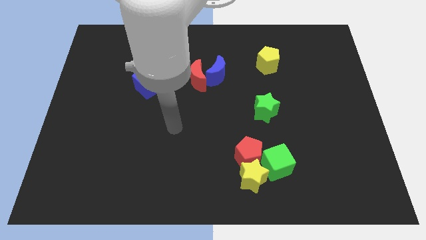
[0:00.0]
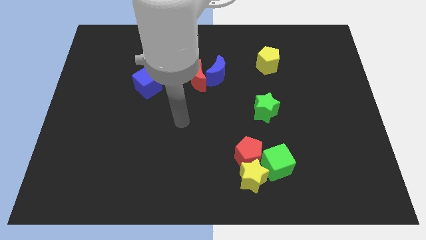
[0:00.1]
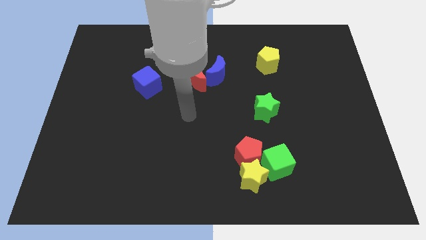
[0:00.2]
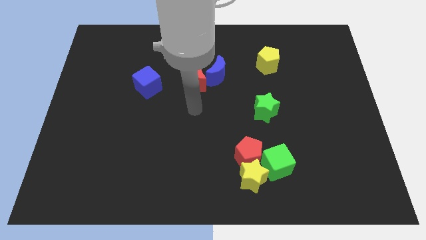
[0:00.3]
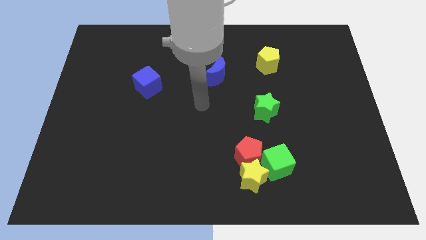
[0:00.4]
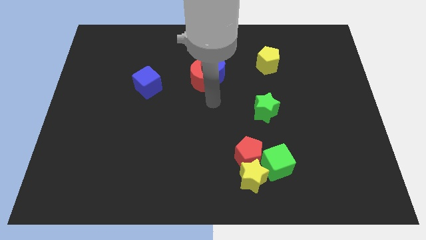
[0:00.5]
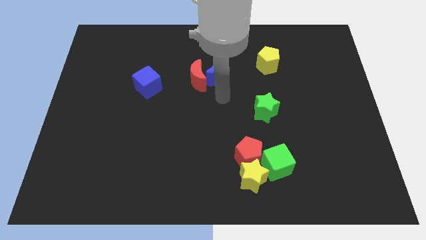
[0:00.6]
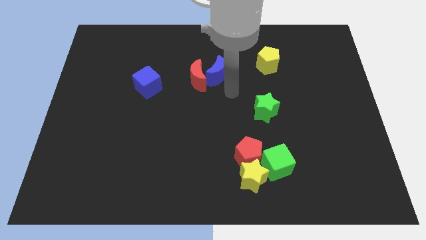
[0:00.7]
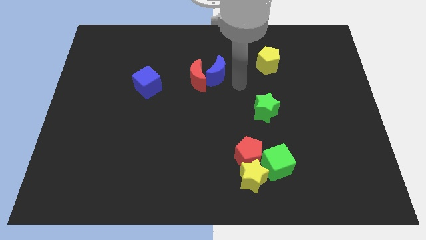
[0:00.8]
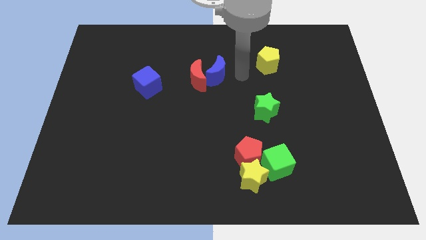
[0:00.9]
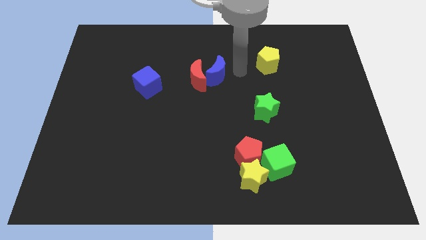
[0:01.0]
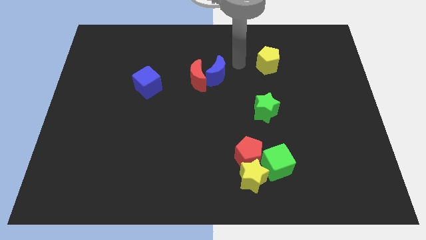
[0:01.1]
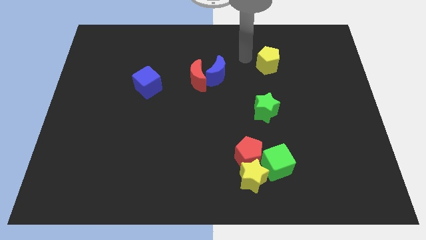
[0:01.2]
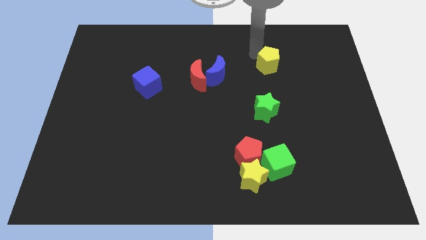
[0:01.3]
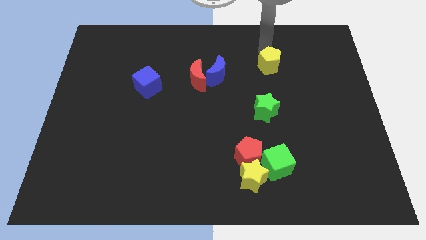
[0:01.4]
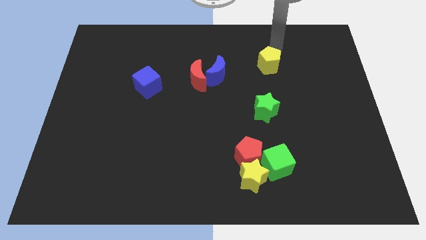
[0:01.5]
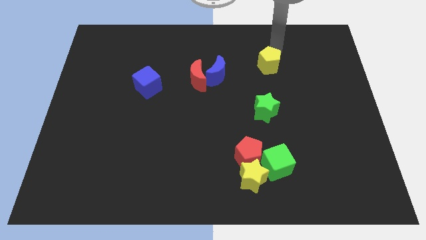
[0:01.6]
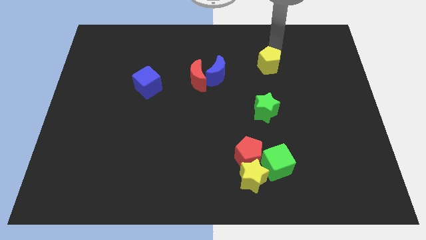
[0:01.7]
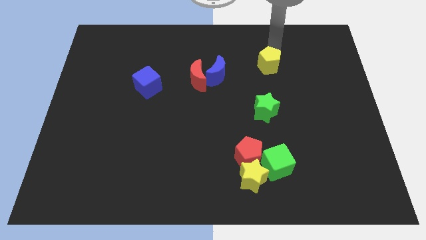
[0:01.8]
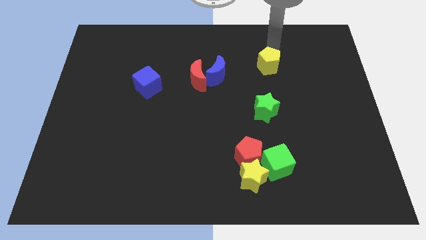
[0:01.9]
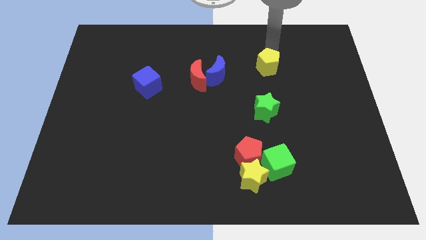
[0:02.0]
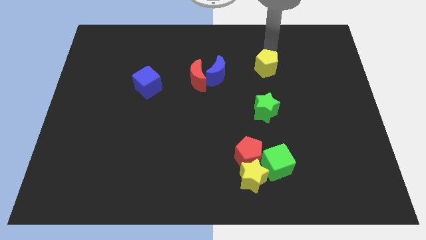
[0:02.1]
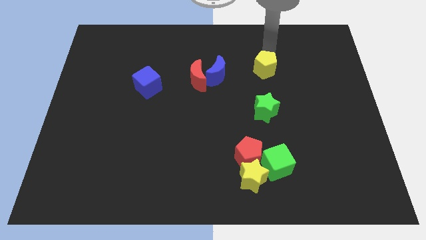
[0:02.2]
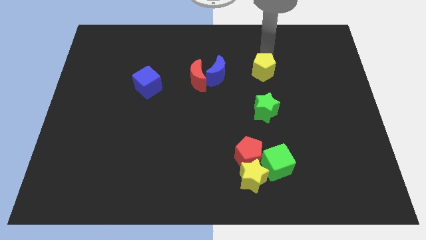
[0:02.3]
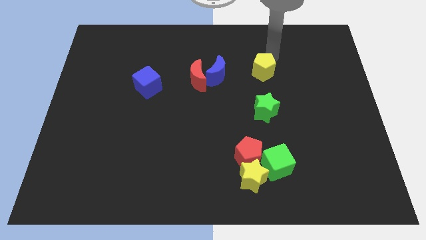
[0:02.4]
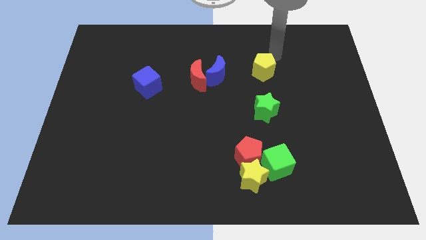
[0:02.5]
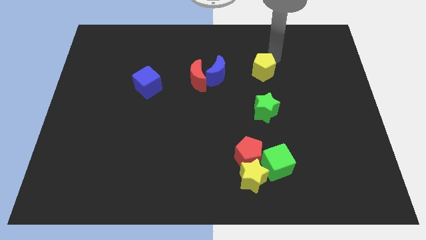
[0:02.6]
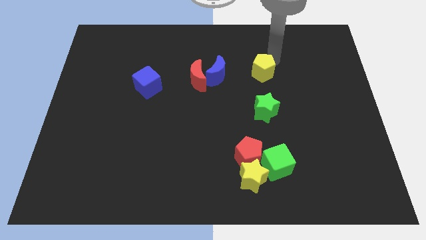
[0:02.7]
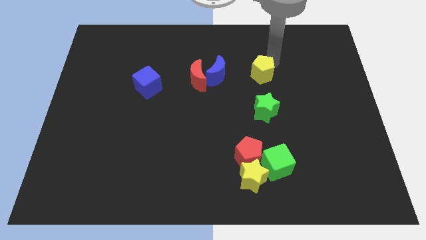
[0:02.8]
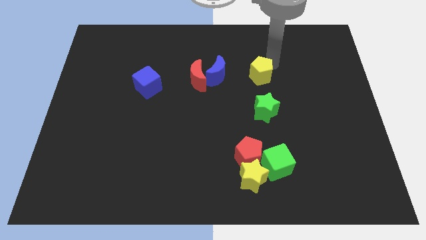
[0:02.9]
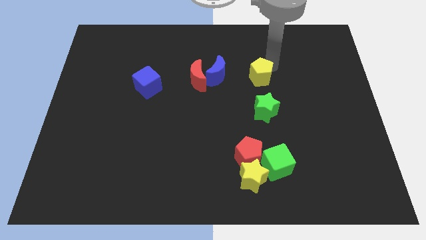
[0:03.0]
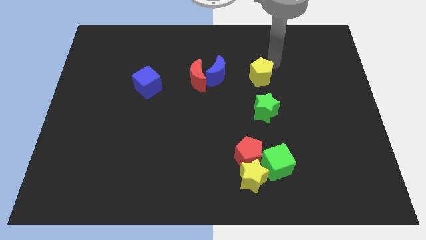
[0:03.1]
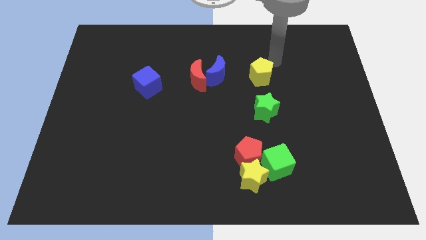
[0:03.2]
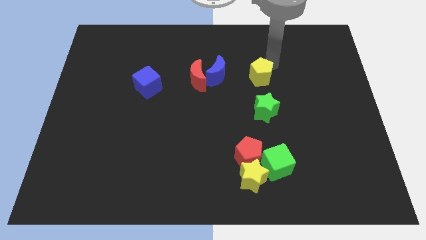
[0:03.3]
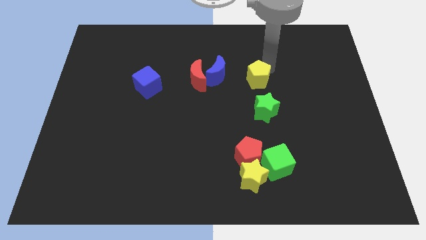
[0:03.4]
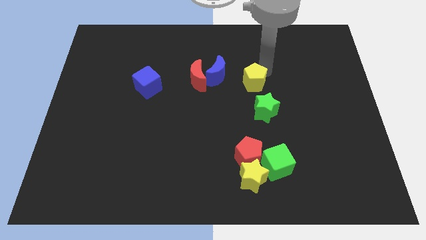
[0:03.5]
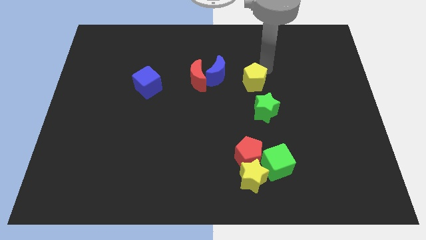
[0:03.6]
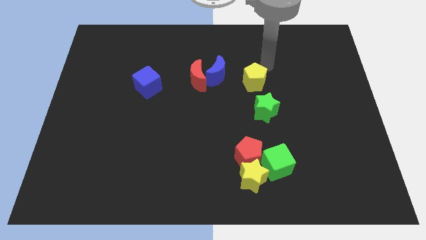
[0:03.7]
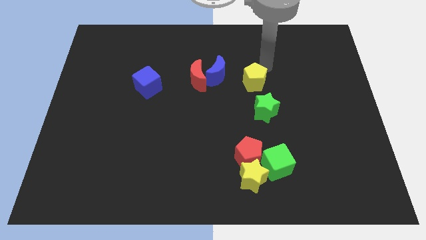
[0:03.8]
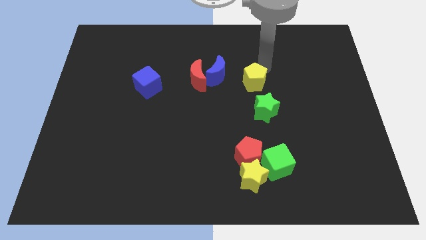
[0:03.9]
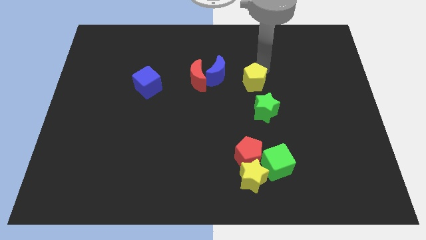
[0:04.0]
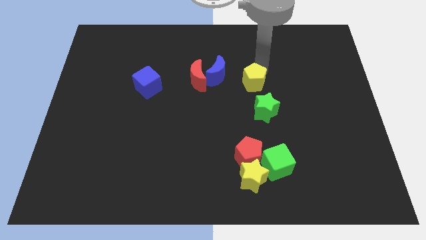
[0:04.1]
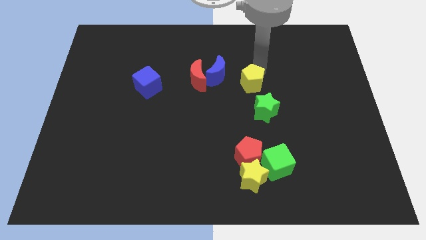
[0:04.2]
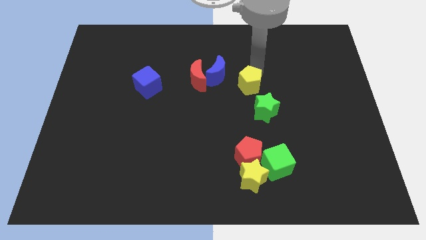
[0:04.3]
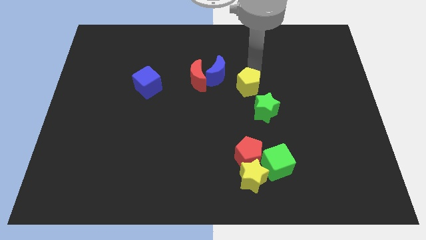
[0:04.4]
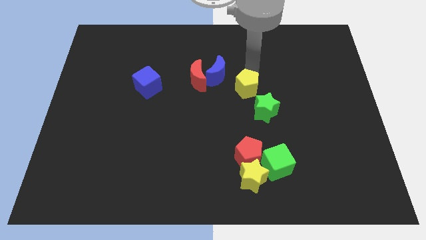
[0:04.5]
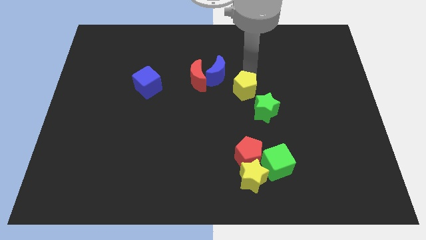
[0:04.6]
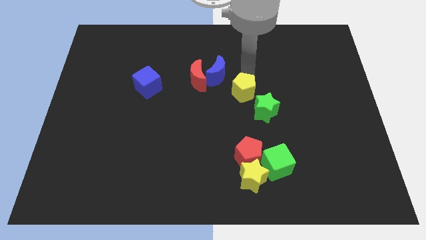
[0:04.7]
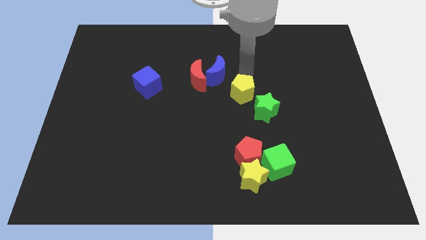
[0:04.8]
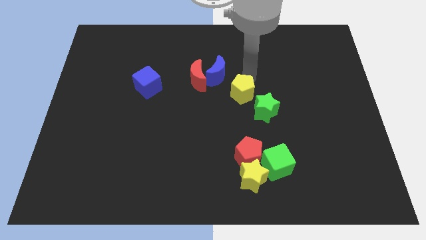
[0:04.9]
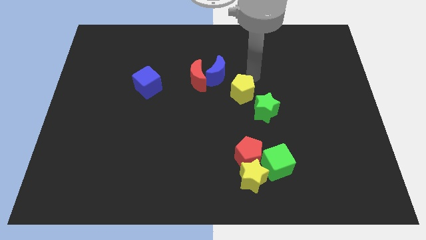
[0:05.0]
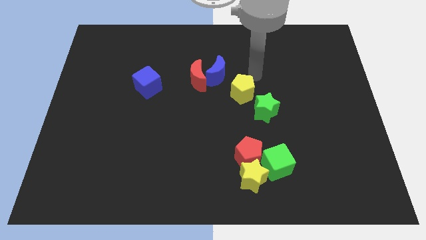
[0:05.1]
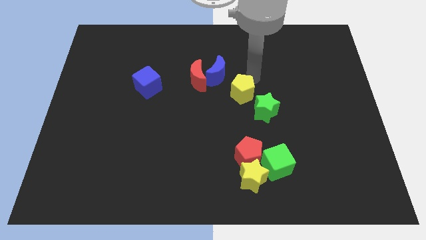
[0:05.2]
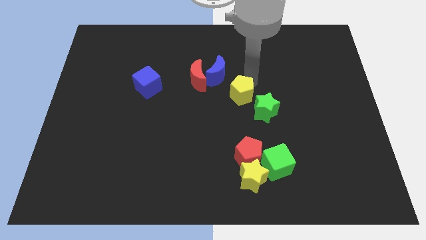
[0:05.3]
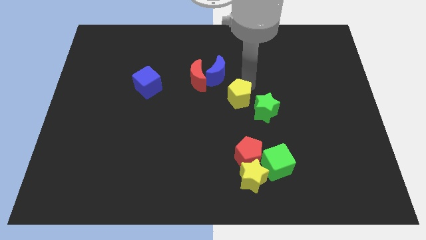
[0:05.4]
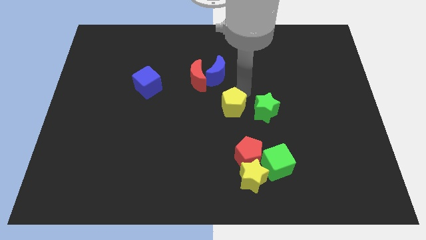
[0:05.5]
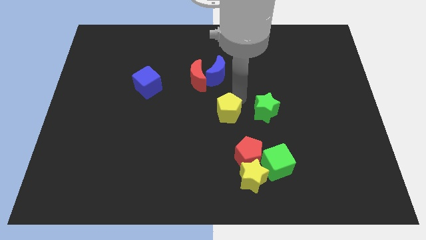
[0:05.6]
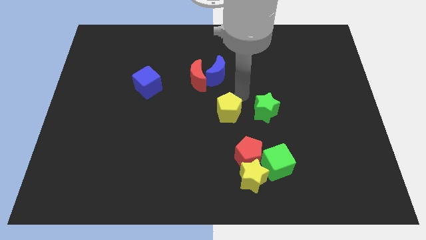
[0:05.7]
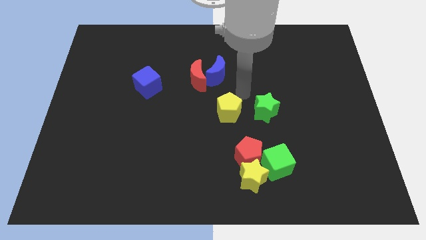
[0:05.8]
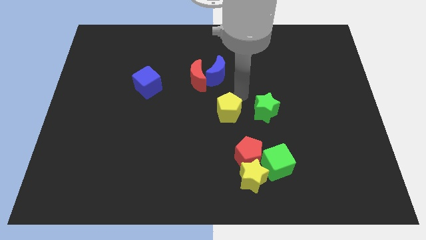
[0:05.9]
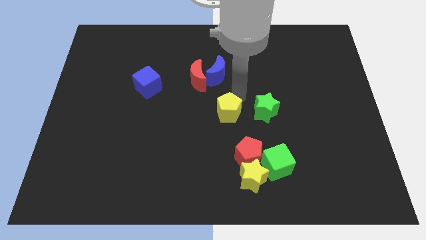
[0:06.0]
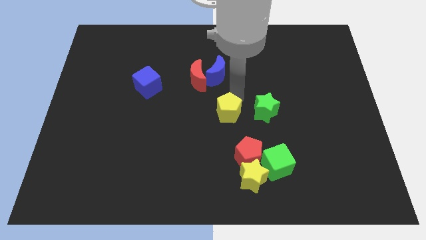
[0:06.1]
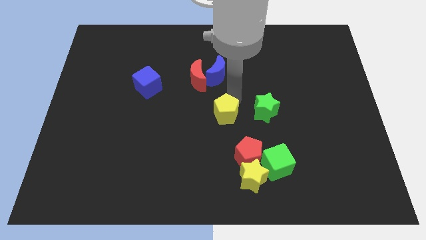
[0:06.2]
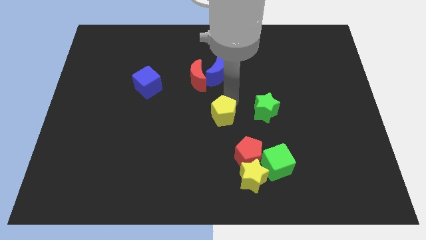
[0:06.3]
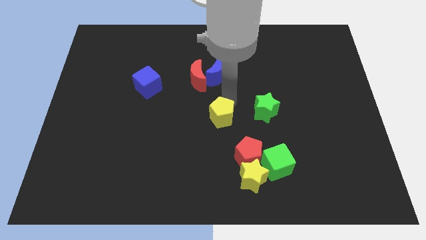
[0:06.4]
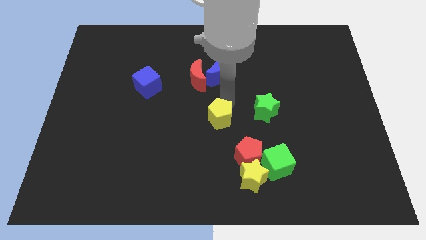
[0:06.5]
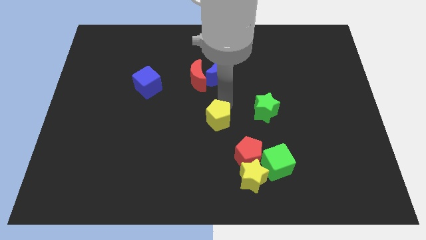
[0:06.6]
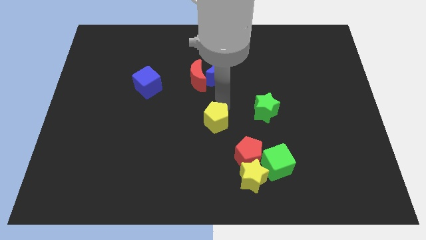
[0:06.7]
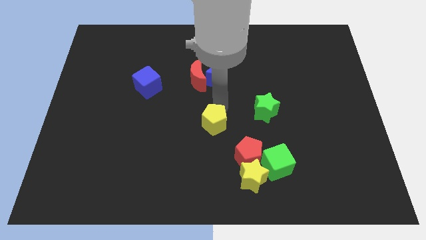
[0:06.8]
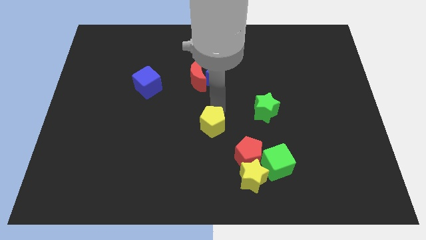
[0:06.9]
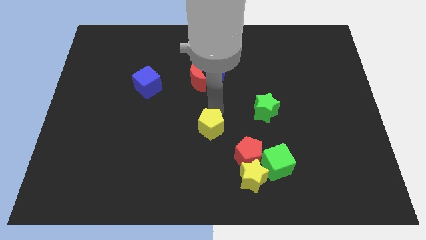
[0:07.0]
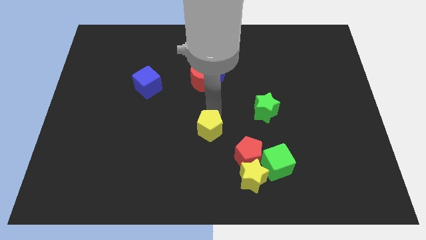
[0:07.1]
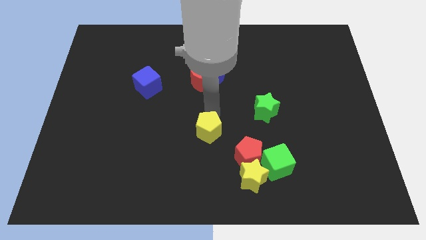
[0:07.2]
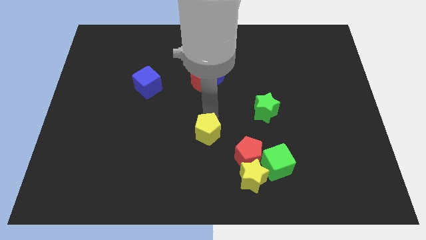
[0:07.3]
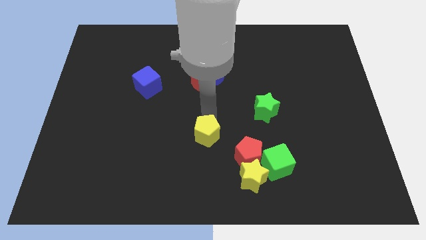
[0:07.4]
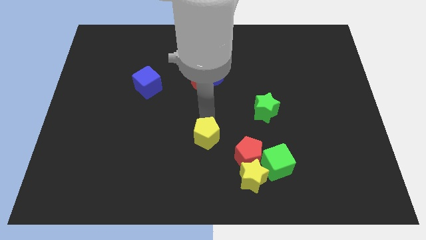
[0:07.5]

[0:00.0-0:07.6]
slide the yellow pentagon to the left of the red pentagon

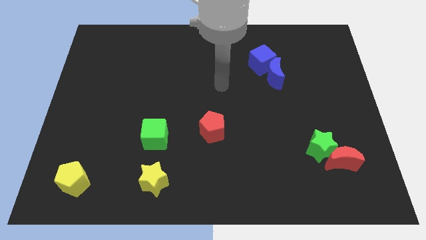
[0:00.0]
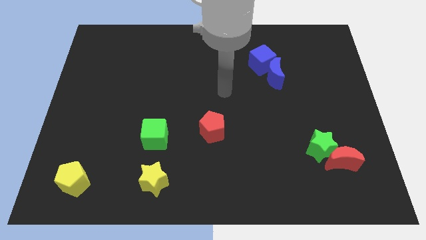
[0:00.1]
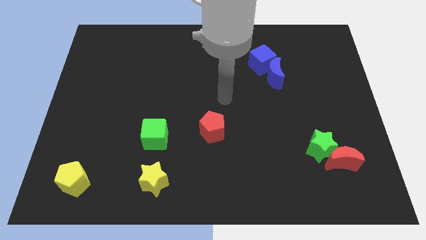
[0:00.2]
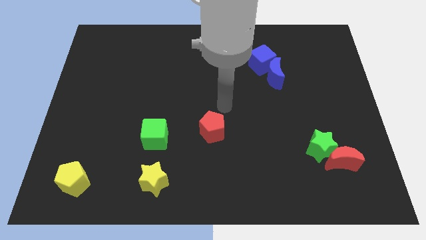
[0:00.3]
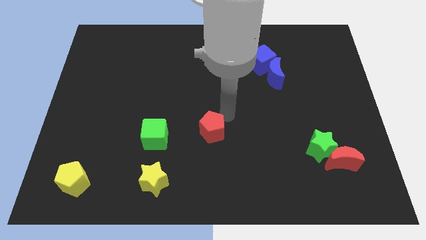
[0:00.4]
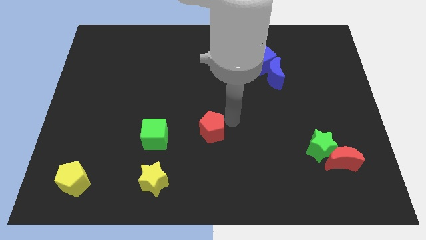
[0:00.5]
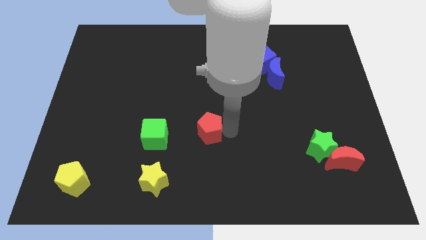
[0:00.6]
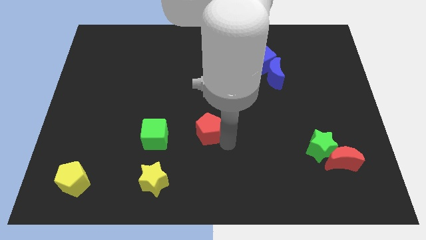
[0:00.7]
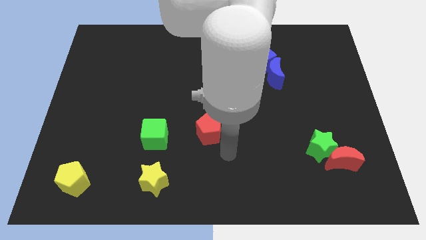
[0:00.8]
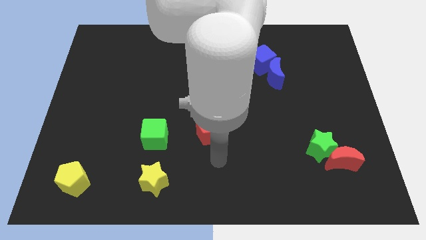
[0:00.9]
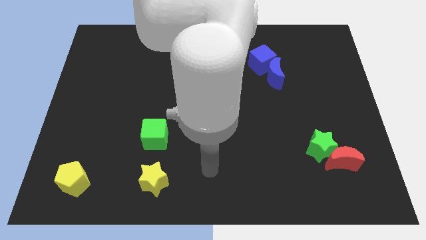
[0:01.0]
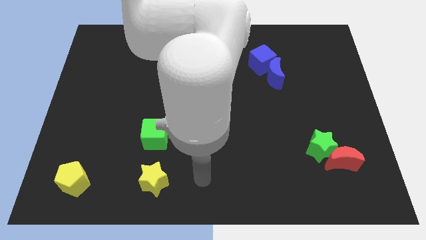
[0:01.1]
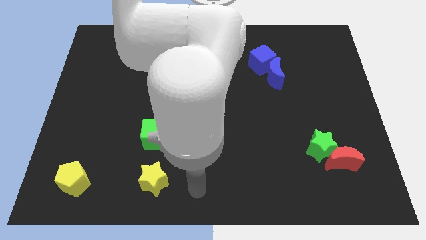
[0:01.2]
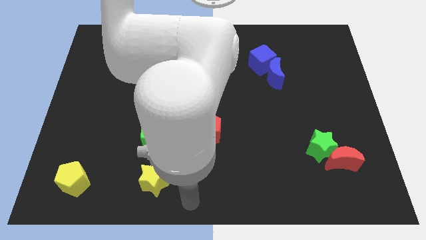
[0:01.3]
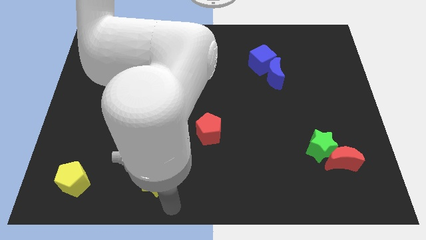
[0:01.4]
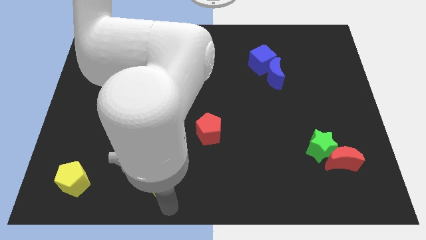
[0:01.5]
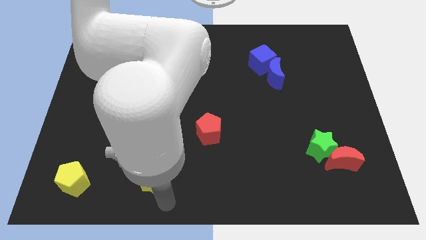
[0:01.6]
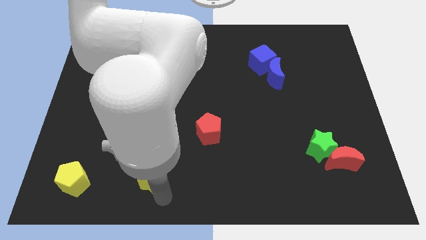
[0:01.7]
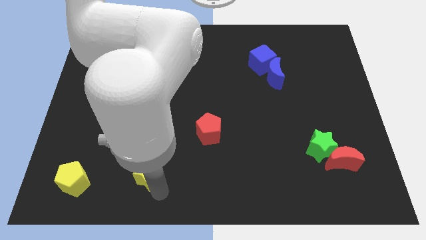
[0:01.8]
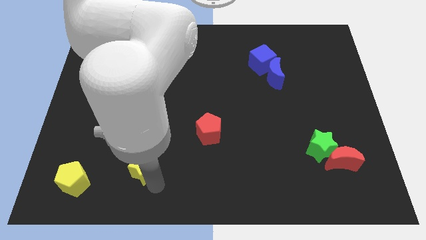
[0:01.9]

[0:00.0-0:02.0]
push the yellow star to the bottom left side of the green cube
